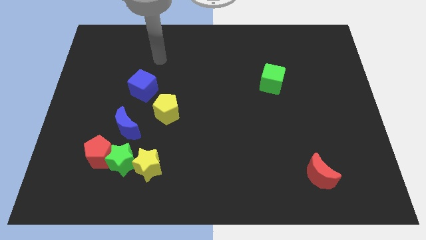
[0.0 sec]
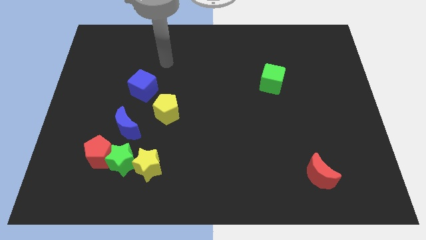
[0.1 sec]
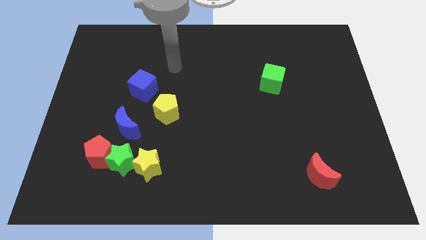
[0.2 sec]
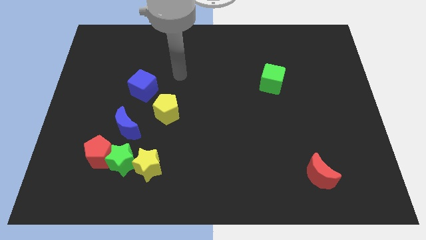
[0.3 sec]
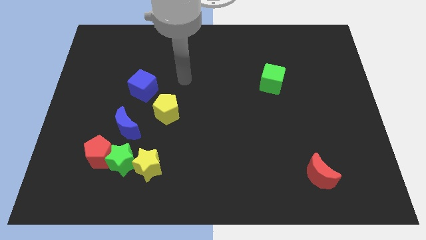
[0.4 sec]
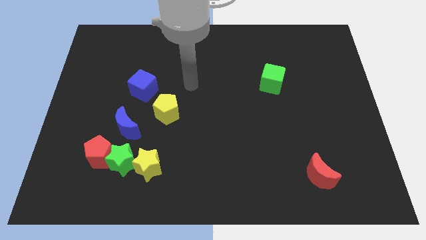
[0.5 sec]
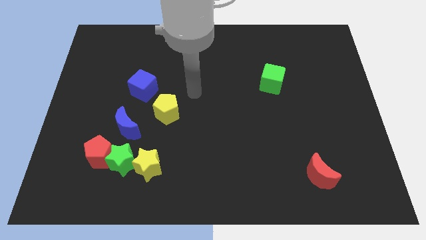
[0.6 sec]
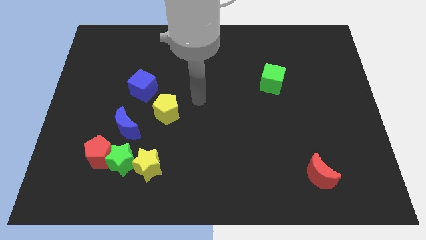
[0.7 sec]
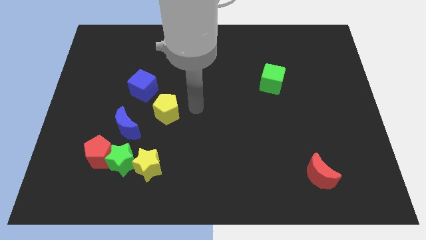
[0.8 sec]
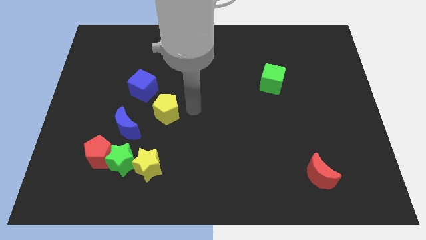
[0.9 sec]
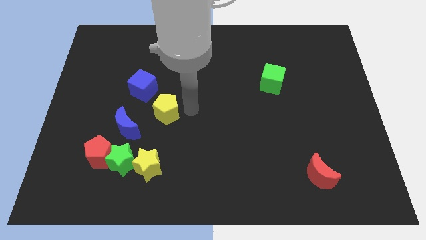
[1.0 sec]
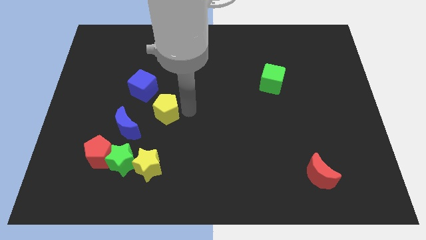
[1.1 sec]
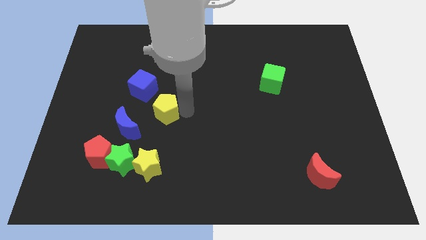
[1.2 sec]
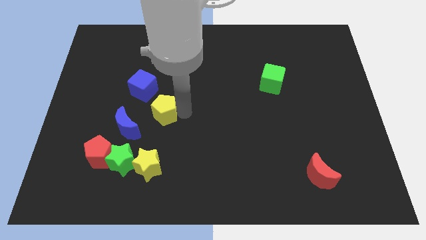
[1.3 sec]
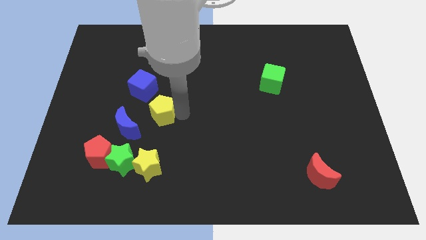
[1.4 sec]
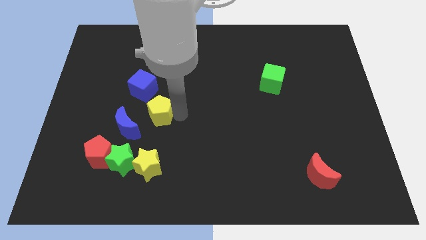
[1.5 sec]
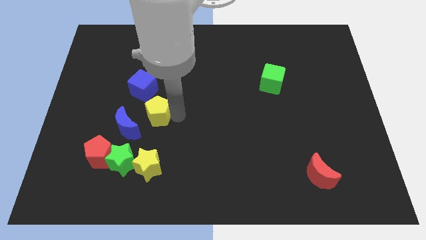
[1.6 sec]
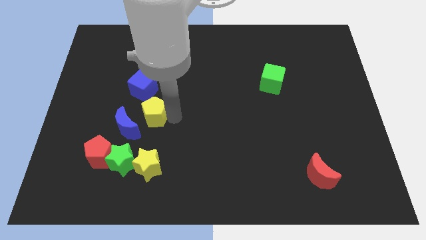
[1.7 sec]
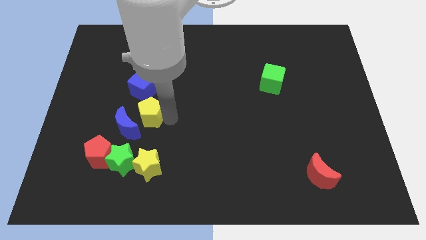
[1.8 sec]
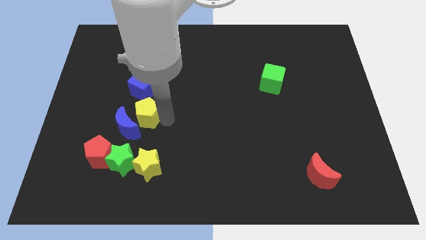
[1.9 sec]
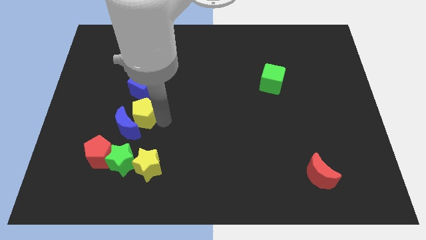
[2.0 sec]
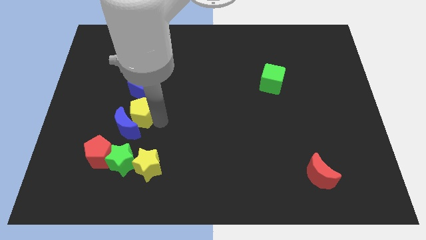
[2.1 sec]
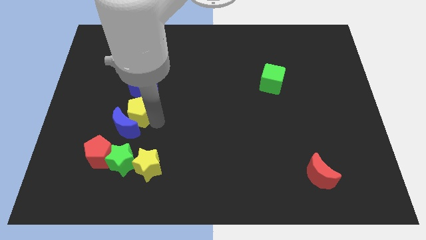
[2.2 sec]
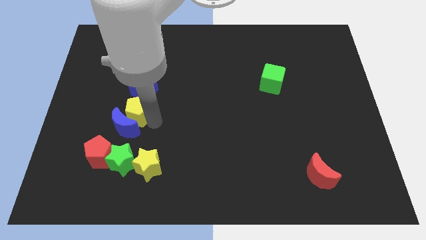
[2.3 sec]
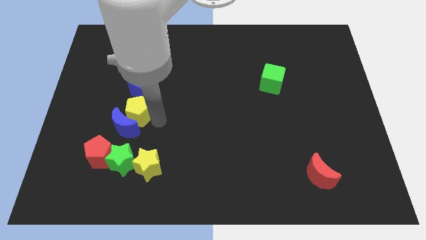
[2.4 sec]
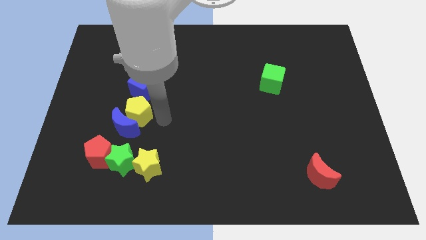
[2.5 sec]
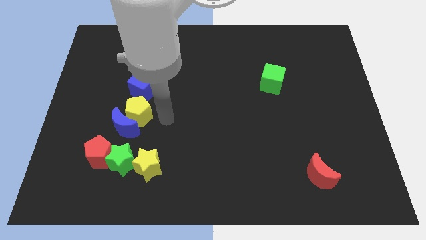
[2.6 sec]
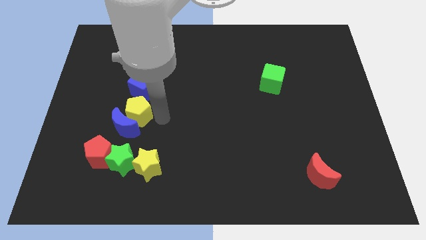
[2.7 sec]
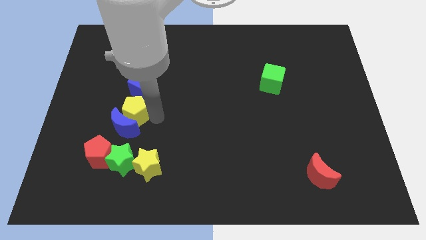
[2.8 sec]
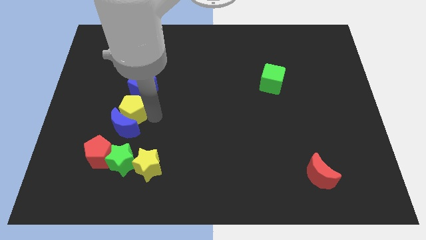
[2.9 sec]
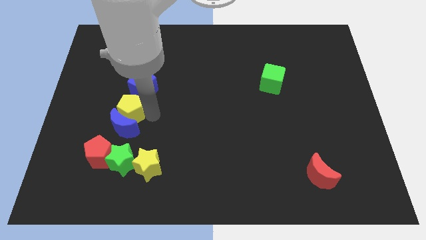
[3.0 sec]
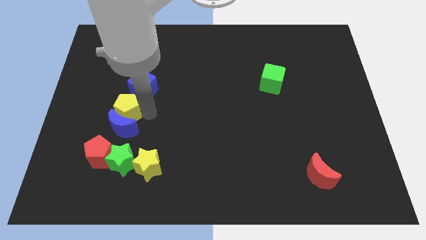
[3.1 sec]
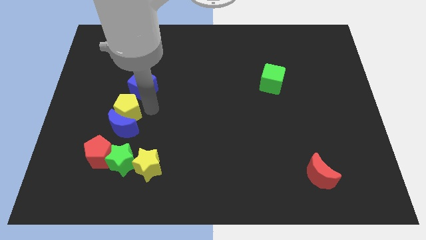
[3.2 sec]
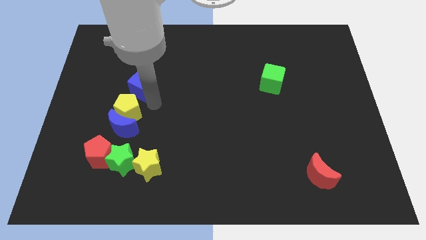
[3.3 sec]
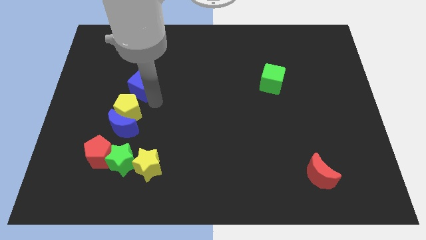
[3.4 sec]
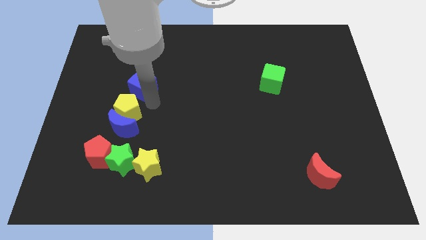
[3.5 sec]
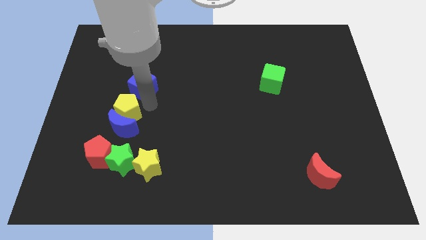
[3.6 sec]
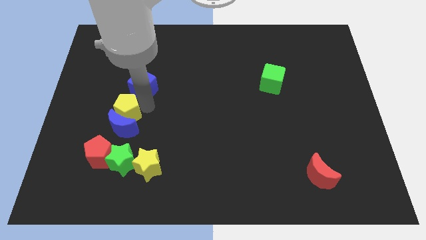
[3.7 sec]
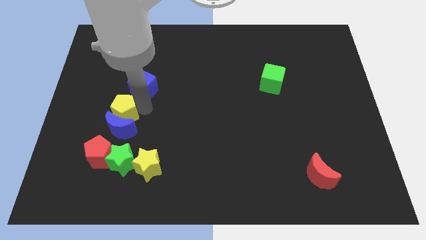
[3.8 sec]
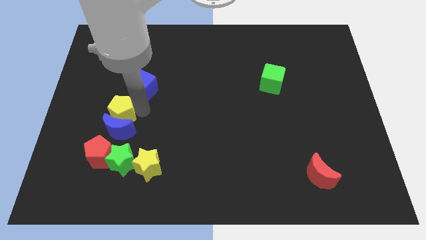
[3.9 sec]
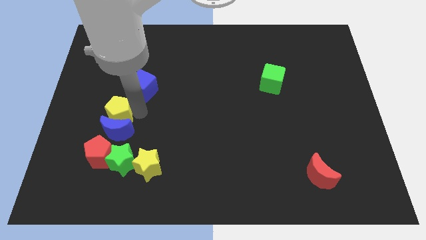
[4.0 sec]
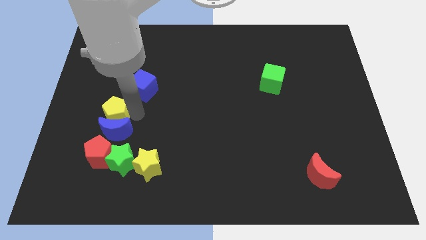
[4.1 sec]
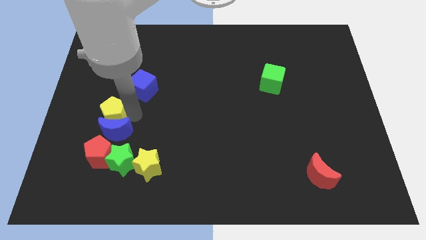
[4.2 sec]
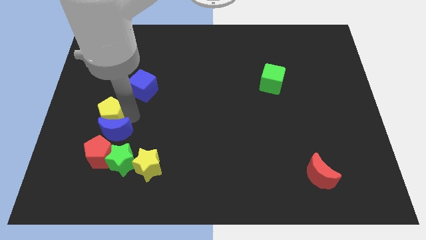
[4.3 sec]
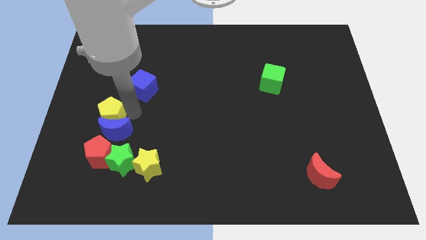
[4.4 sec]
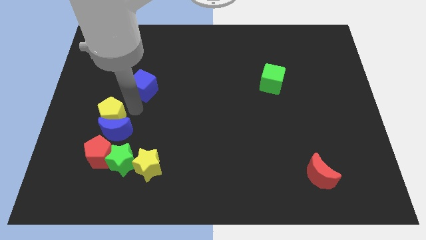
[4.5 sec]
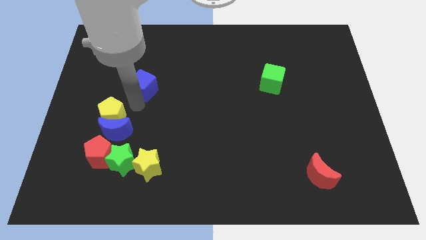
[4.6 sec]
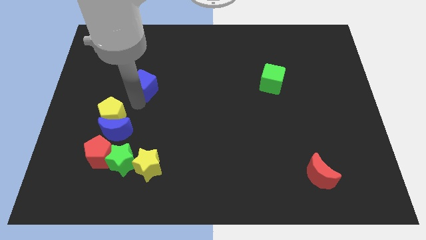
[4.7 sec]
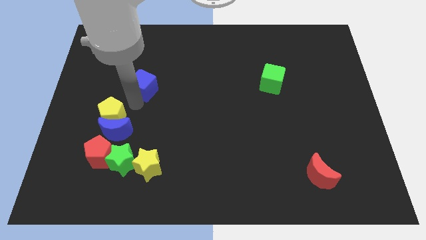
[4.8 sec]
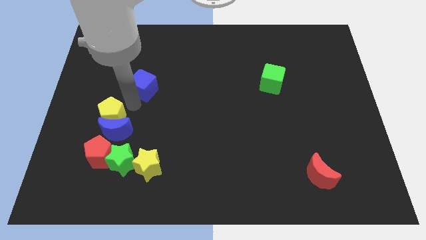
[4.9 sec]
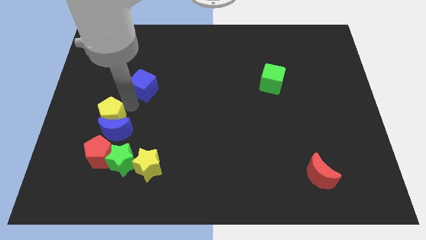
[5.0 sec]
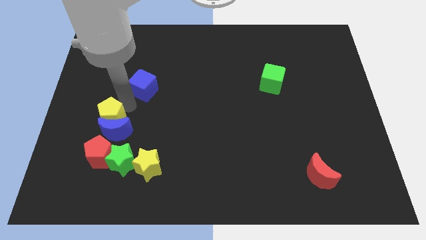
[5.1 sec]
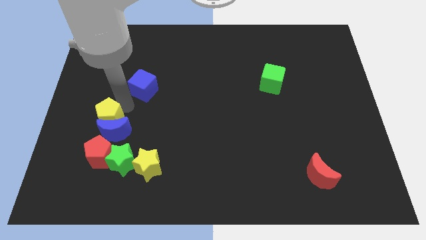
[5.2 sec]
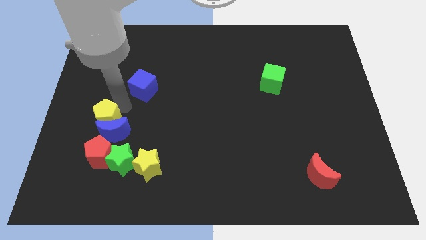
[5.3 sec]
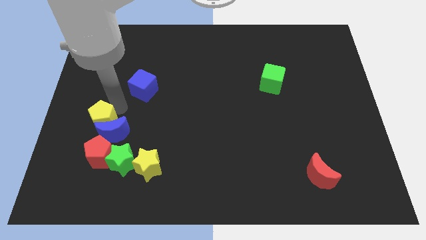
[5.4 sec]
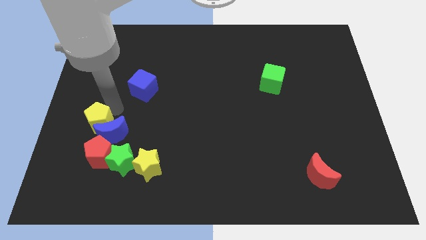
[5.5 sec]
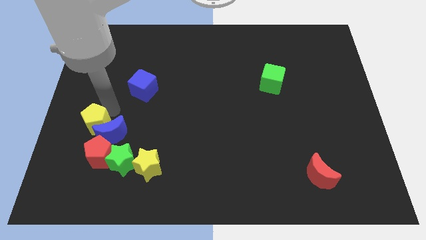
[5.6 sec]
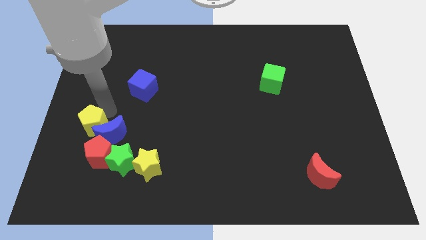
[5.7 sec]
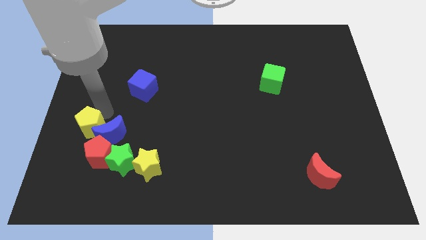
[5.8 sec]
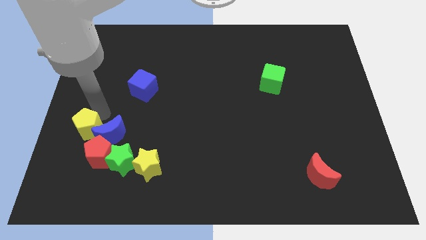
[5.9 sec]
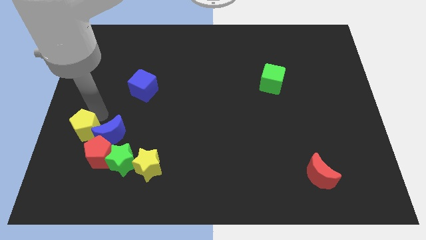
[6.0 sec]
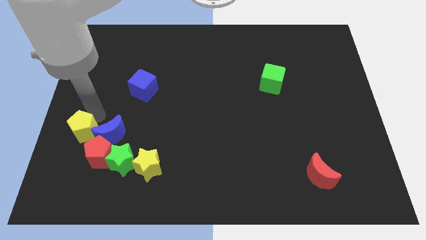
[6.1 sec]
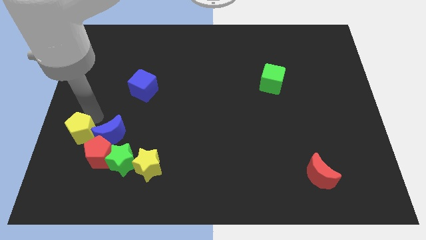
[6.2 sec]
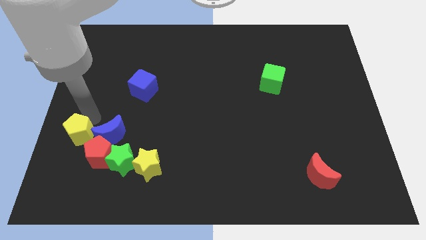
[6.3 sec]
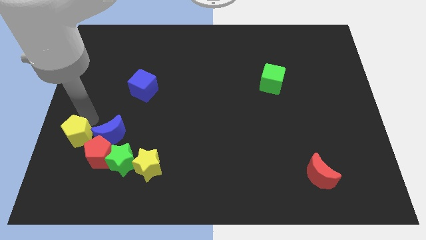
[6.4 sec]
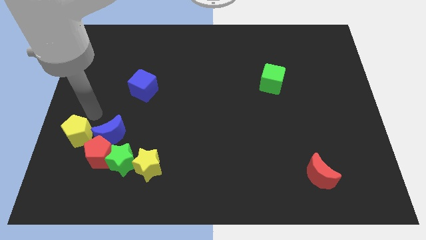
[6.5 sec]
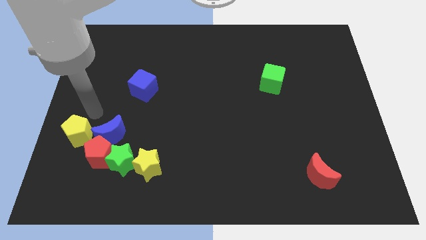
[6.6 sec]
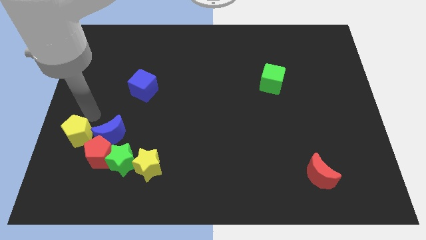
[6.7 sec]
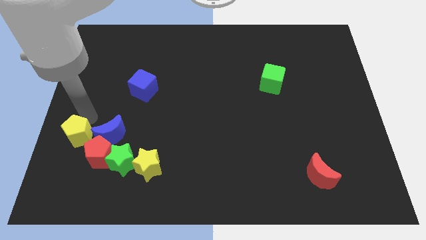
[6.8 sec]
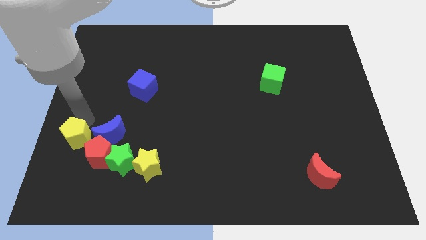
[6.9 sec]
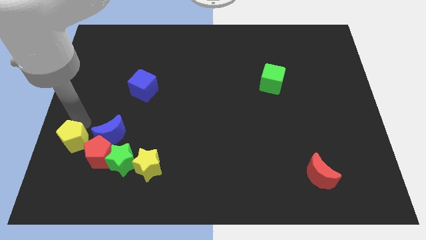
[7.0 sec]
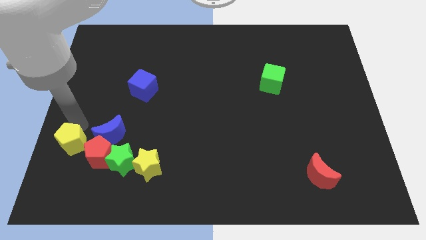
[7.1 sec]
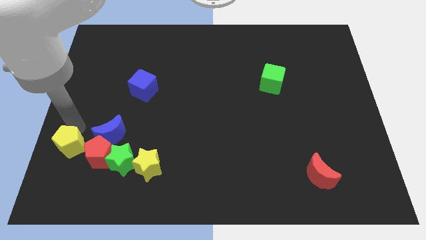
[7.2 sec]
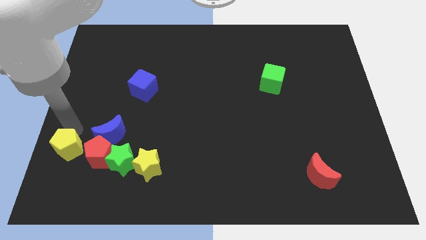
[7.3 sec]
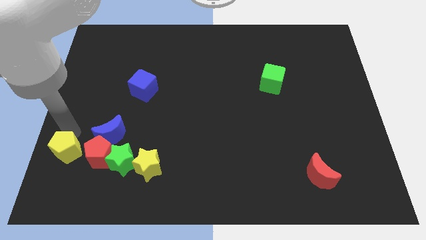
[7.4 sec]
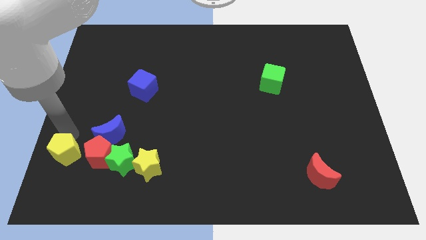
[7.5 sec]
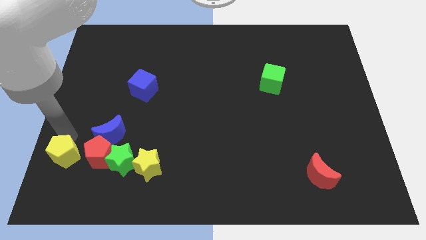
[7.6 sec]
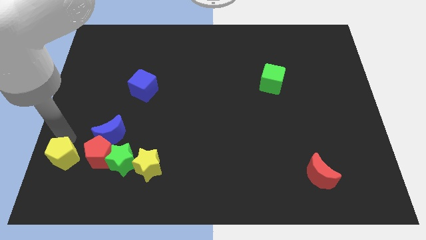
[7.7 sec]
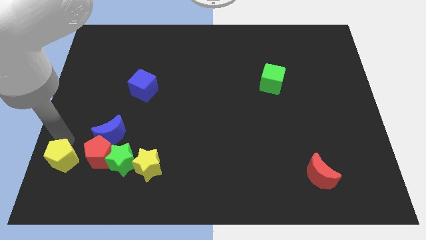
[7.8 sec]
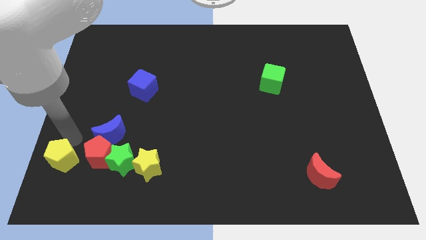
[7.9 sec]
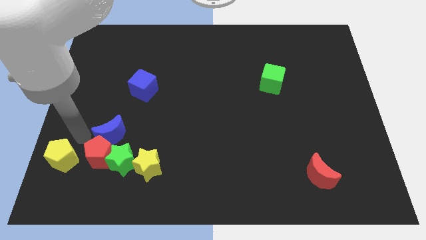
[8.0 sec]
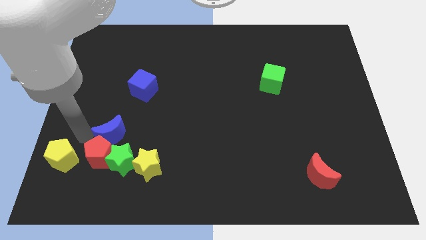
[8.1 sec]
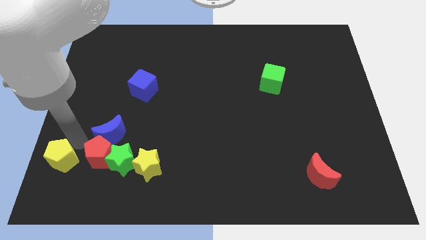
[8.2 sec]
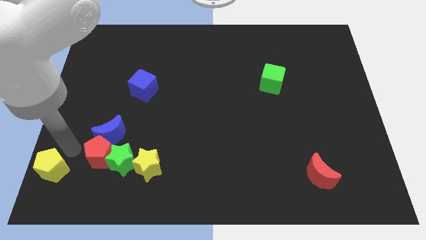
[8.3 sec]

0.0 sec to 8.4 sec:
move the yellow pentagon to the bottom left of the board
